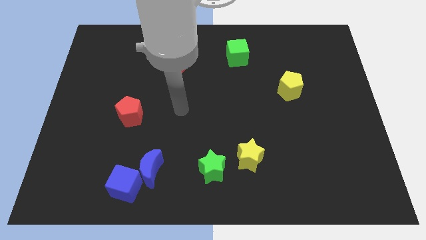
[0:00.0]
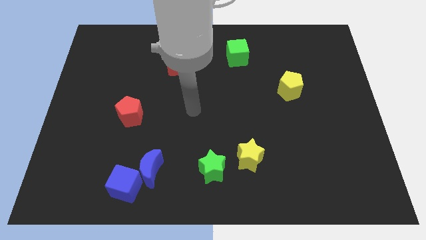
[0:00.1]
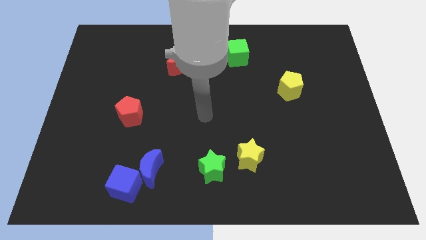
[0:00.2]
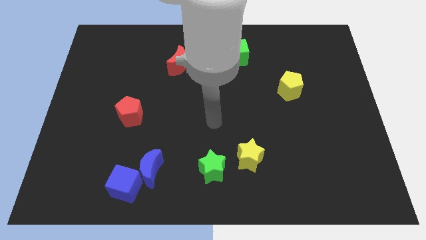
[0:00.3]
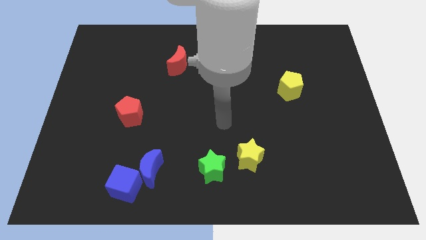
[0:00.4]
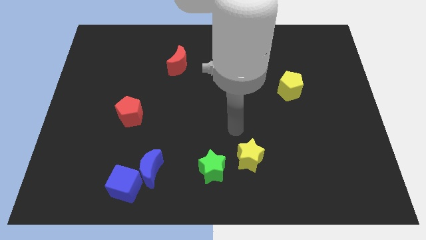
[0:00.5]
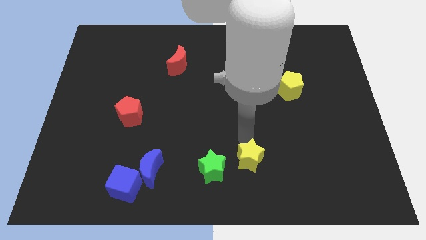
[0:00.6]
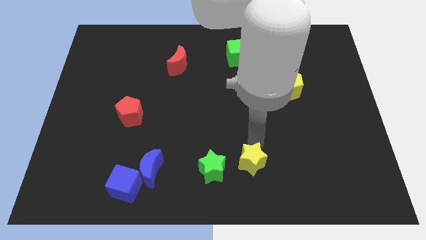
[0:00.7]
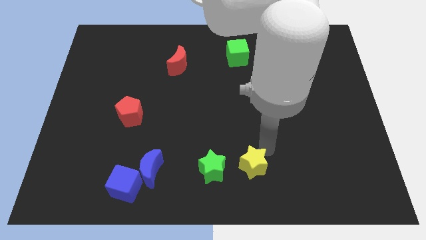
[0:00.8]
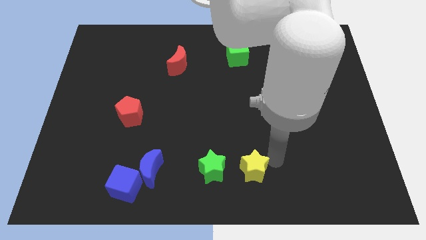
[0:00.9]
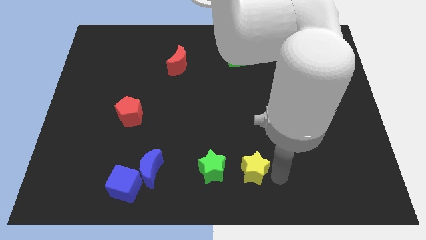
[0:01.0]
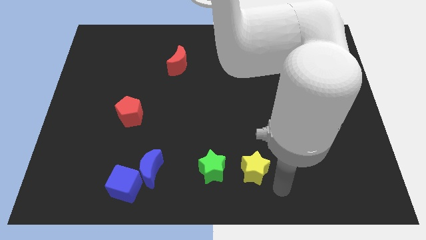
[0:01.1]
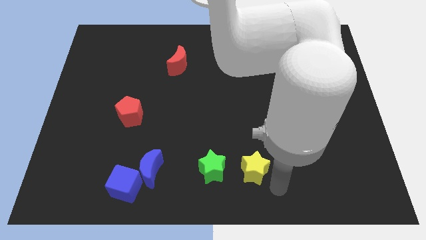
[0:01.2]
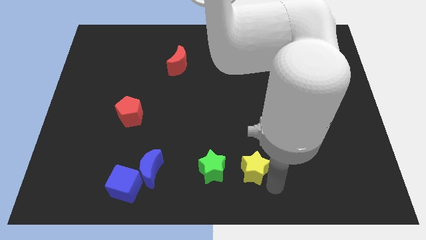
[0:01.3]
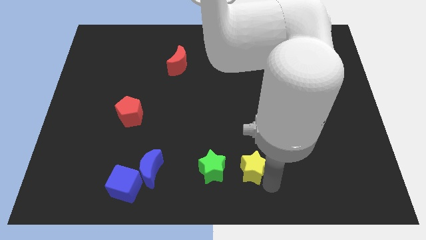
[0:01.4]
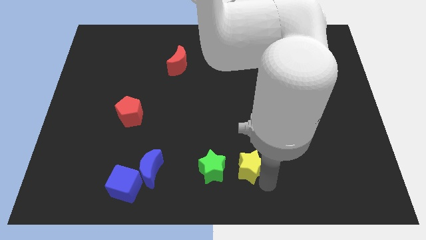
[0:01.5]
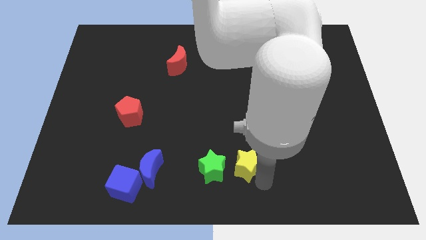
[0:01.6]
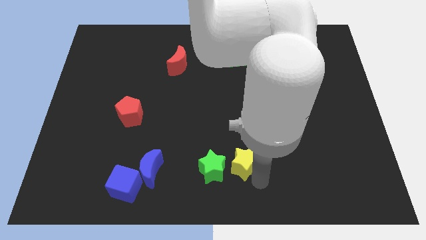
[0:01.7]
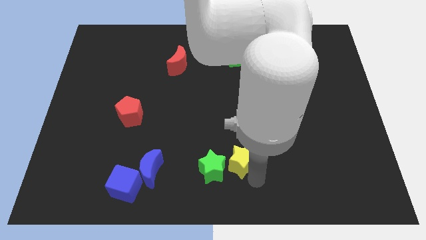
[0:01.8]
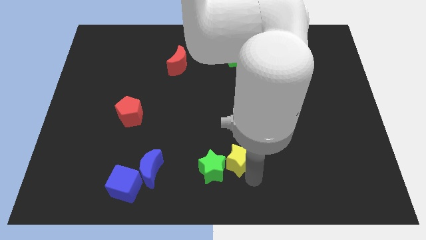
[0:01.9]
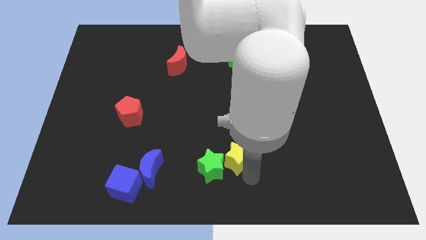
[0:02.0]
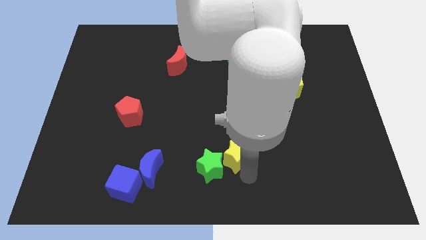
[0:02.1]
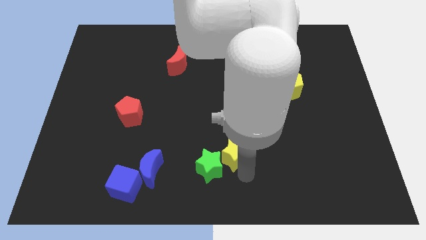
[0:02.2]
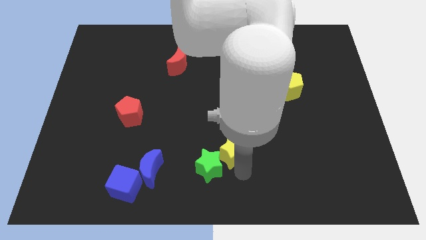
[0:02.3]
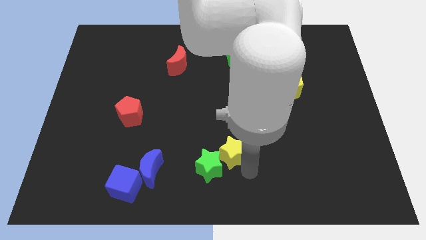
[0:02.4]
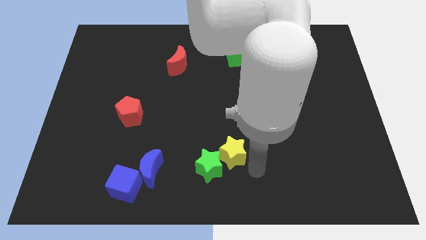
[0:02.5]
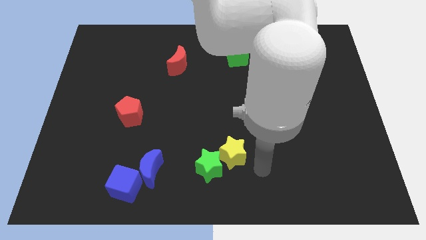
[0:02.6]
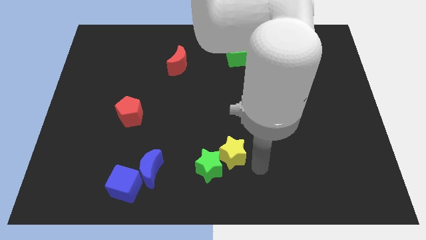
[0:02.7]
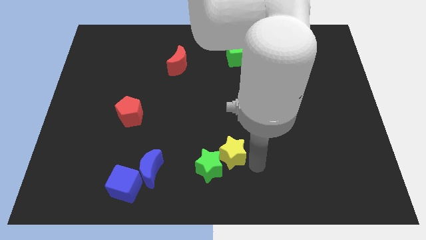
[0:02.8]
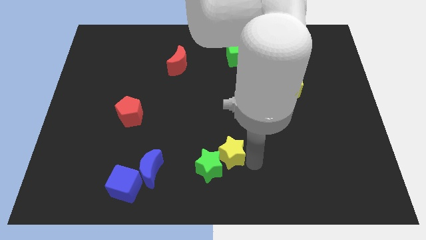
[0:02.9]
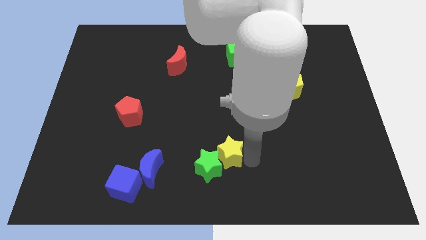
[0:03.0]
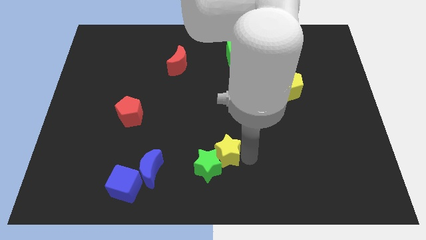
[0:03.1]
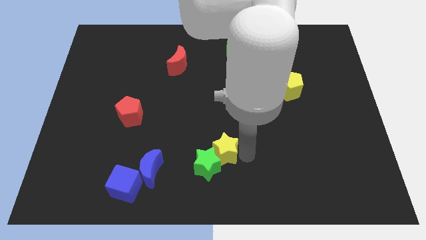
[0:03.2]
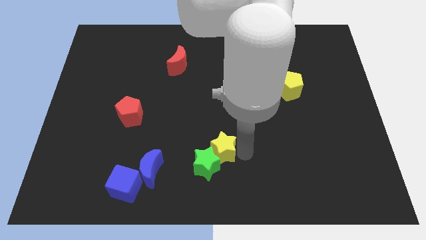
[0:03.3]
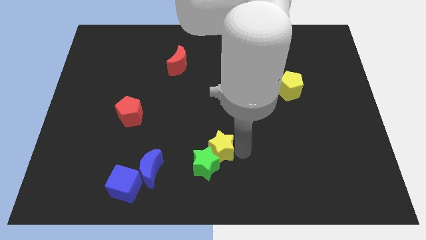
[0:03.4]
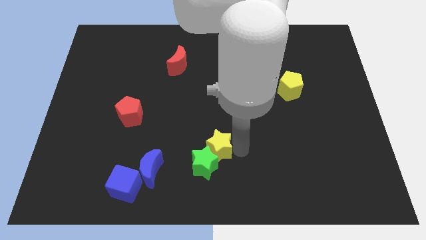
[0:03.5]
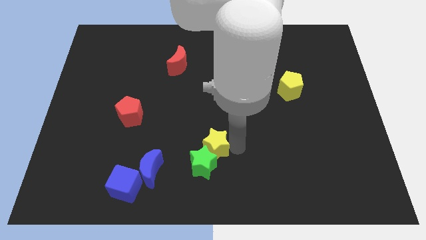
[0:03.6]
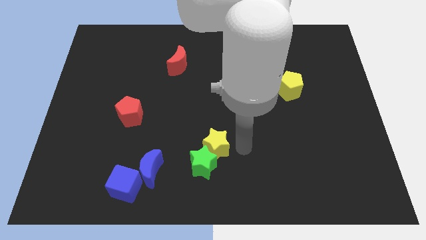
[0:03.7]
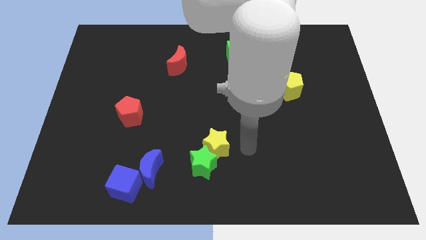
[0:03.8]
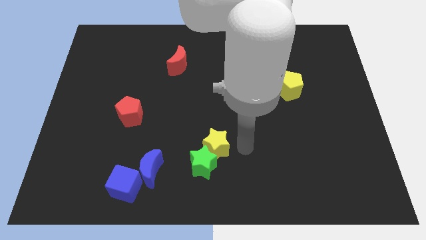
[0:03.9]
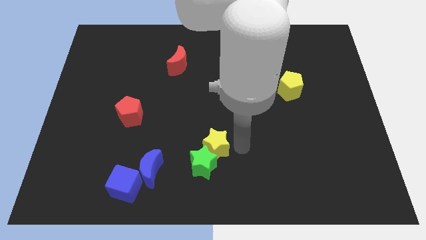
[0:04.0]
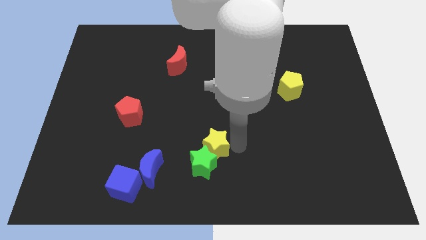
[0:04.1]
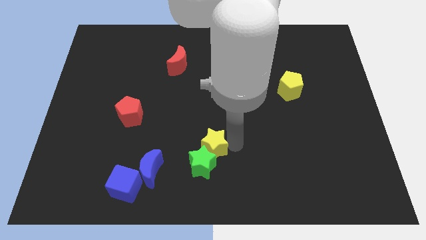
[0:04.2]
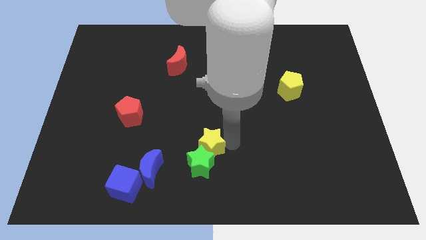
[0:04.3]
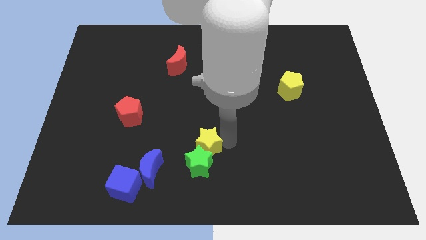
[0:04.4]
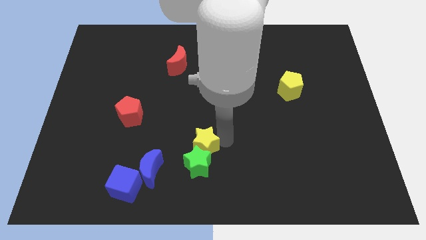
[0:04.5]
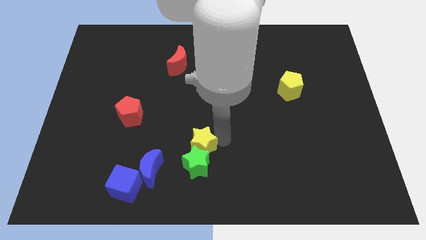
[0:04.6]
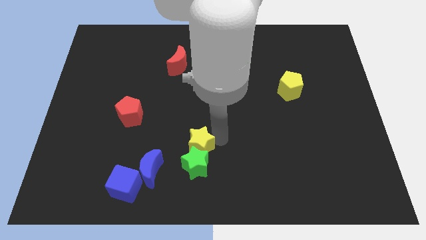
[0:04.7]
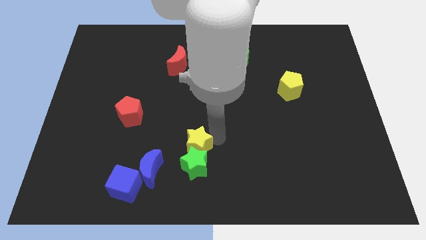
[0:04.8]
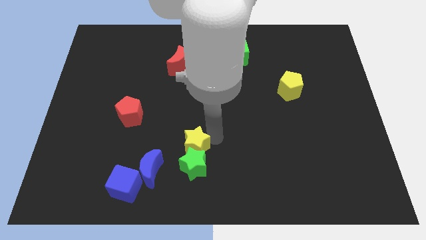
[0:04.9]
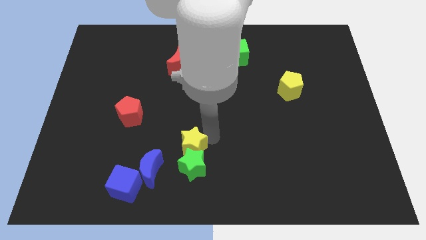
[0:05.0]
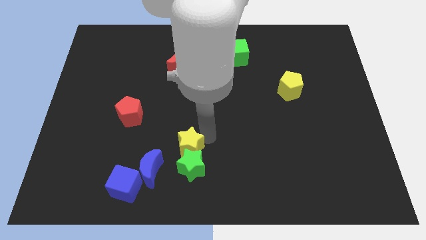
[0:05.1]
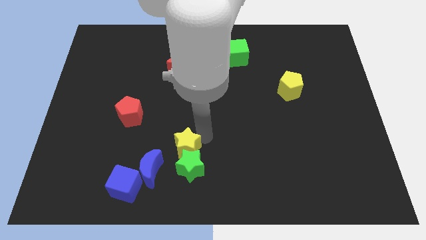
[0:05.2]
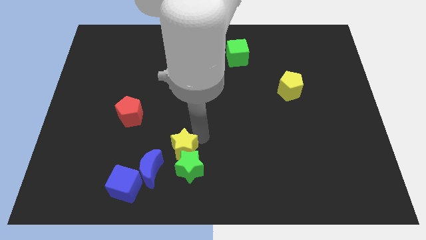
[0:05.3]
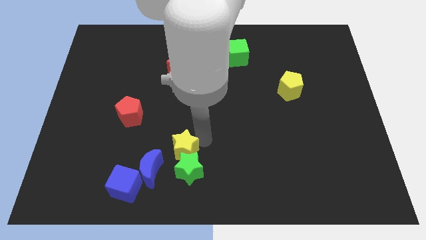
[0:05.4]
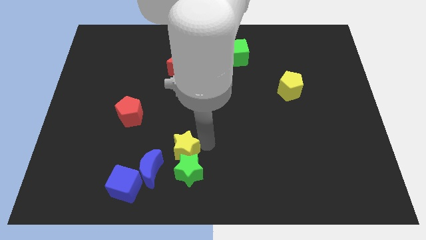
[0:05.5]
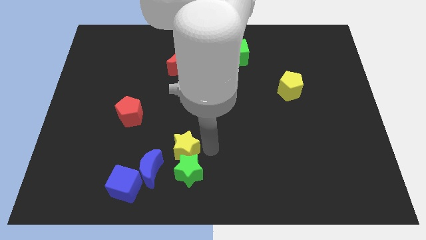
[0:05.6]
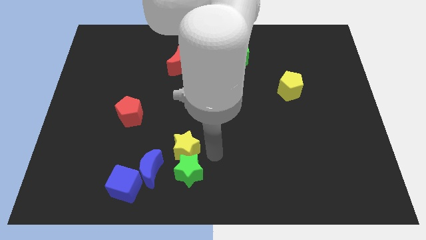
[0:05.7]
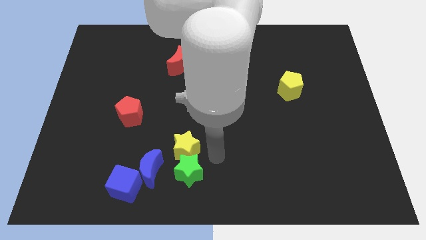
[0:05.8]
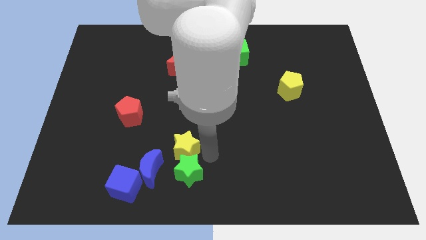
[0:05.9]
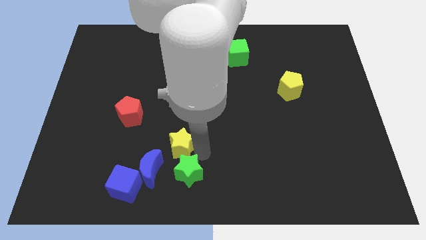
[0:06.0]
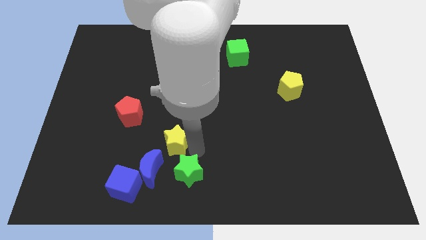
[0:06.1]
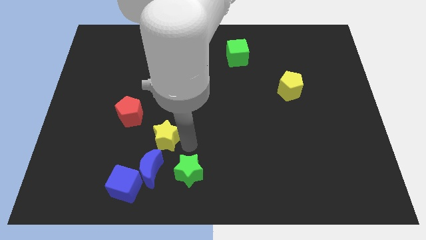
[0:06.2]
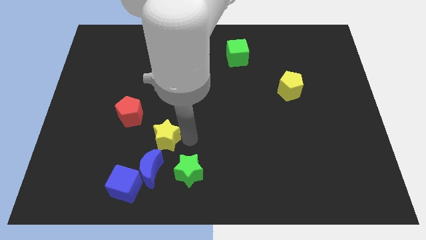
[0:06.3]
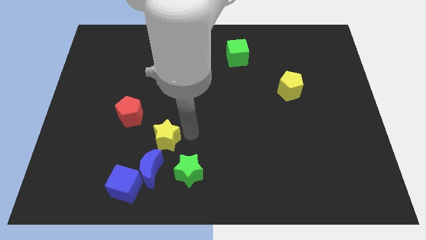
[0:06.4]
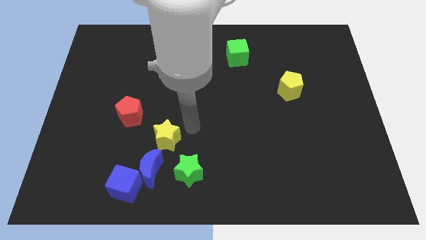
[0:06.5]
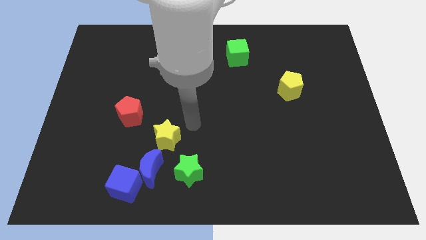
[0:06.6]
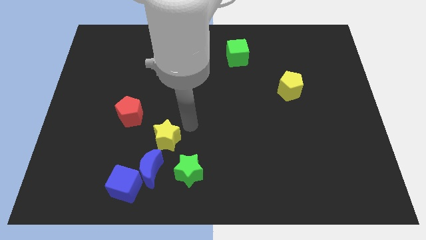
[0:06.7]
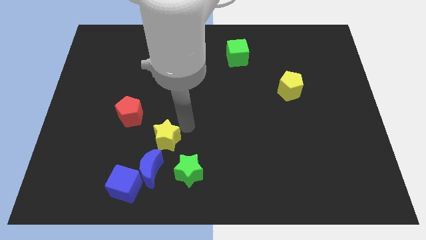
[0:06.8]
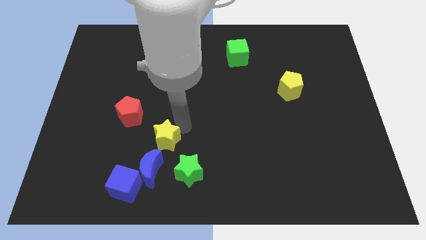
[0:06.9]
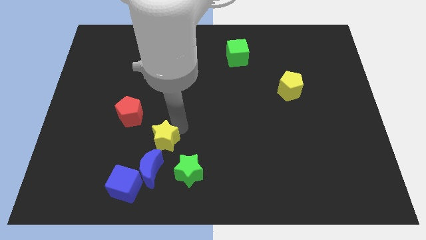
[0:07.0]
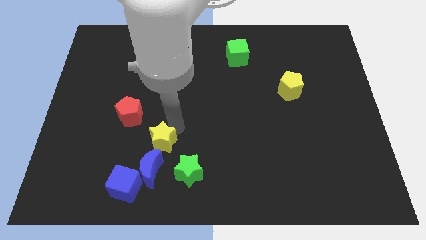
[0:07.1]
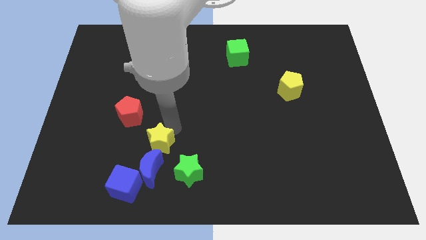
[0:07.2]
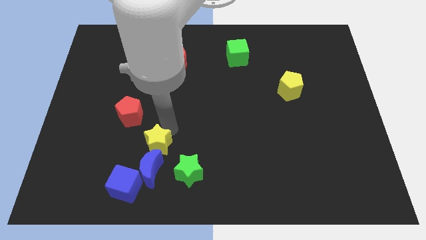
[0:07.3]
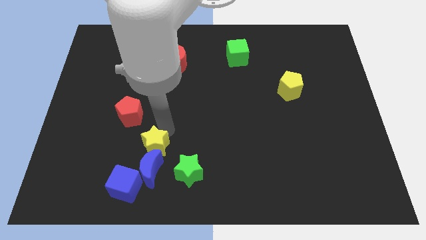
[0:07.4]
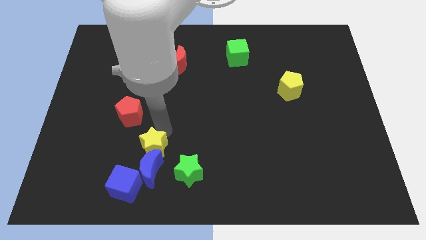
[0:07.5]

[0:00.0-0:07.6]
slide the yellow star to the left

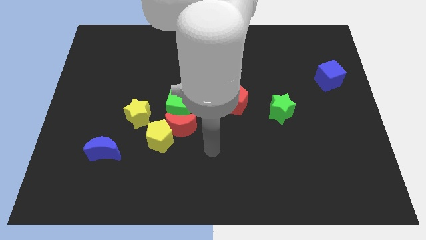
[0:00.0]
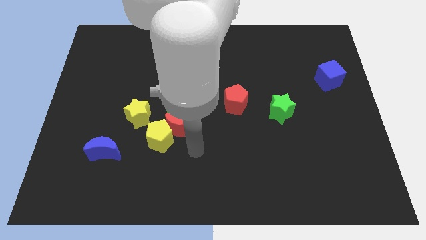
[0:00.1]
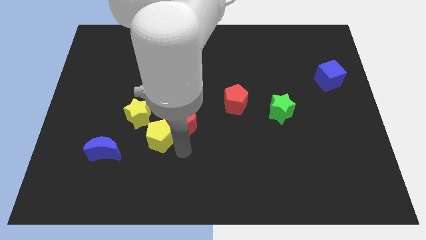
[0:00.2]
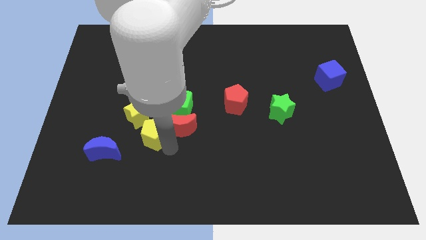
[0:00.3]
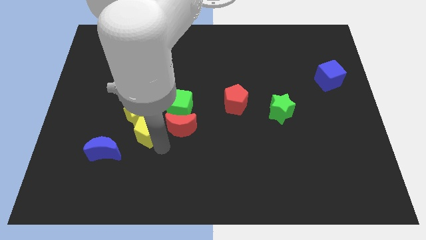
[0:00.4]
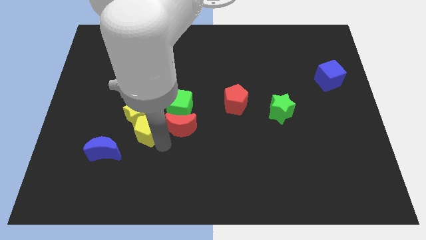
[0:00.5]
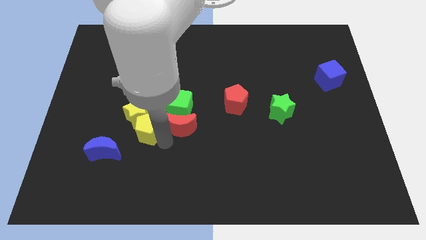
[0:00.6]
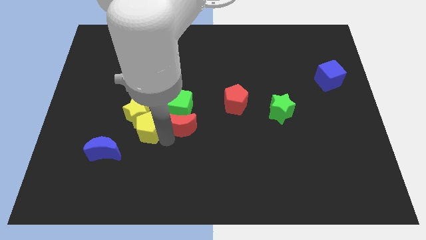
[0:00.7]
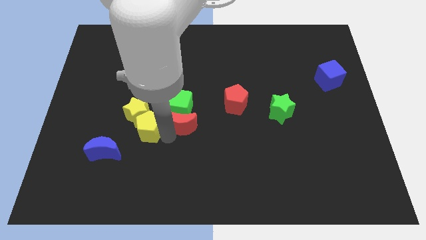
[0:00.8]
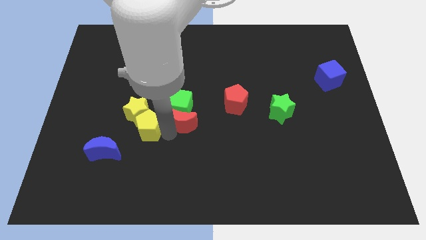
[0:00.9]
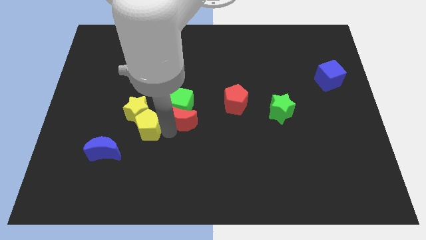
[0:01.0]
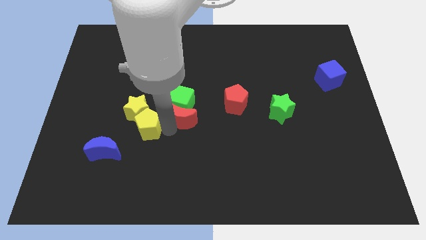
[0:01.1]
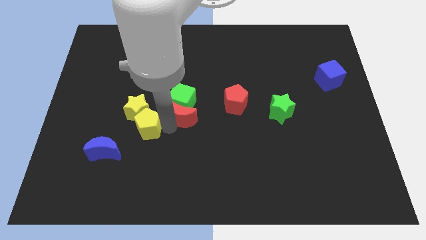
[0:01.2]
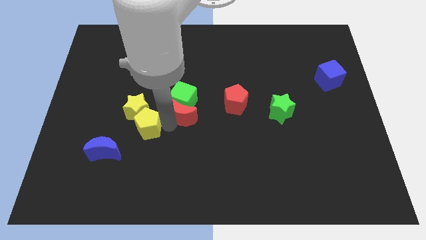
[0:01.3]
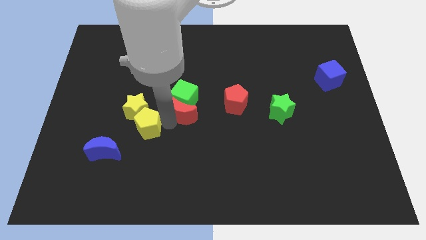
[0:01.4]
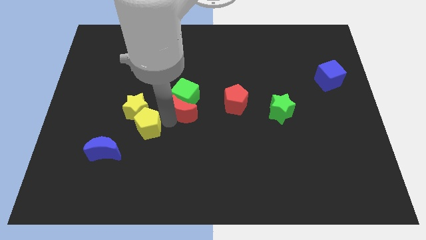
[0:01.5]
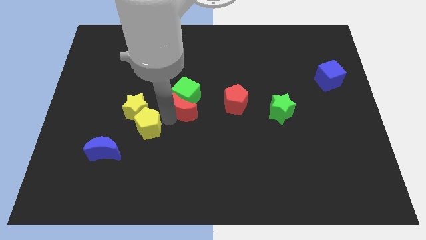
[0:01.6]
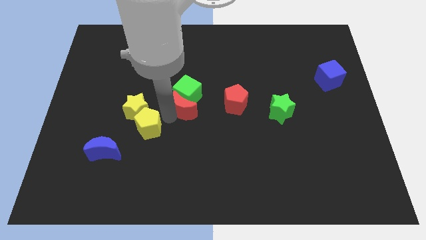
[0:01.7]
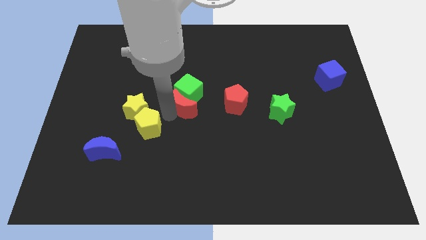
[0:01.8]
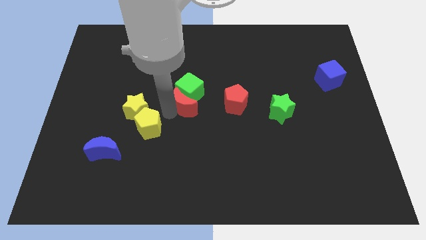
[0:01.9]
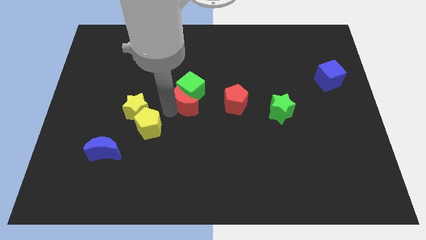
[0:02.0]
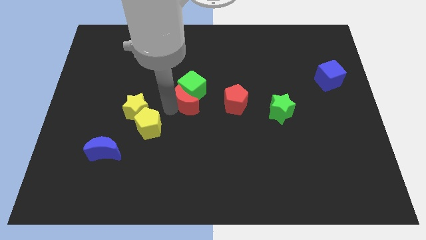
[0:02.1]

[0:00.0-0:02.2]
move the red moon up a little bit
